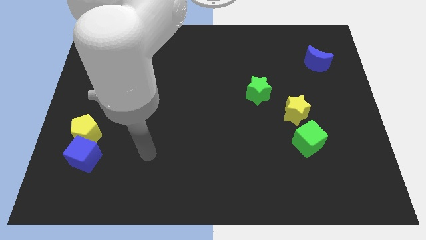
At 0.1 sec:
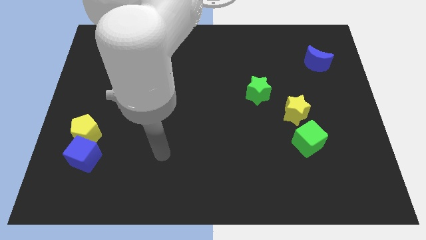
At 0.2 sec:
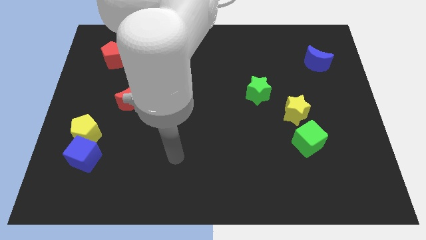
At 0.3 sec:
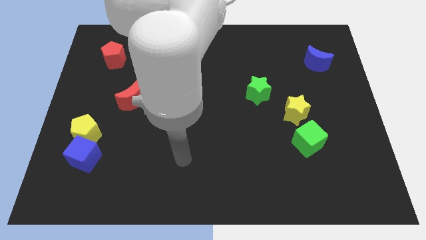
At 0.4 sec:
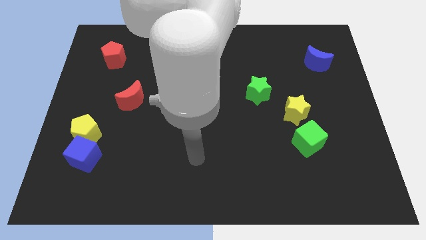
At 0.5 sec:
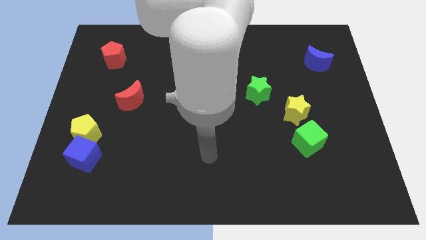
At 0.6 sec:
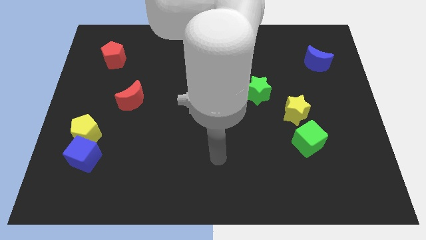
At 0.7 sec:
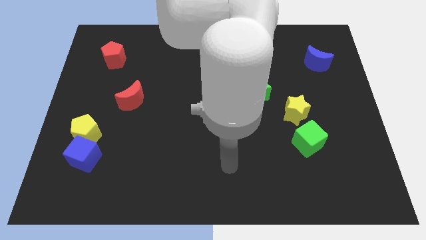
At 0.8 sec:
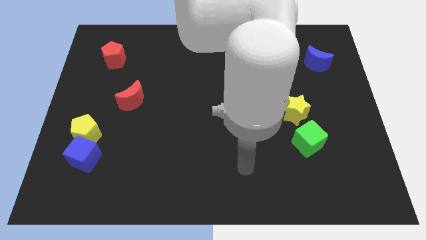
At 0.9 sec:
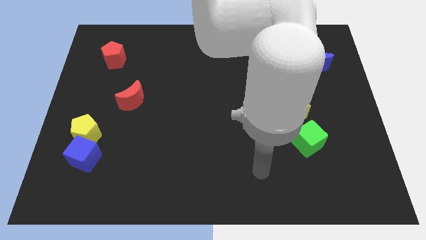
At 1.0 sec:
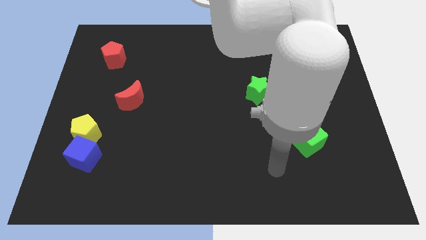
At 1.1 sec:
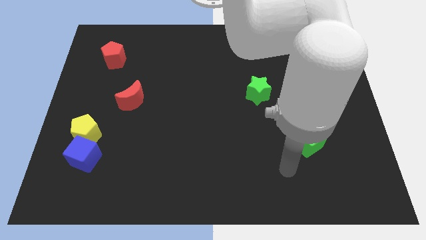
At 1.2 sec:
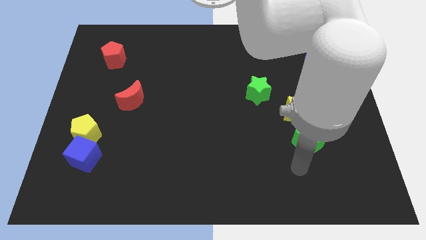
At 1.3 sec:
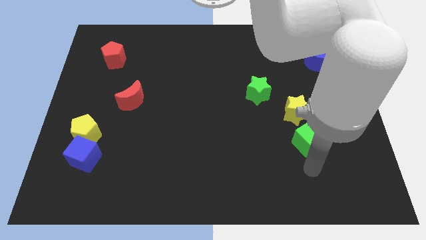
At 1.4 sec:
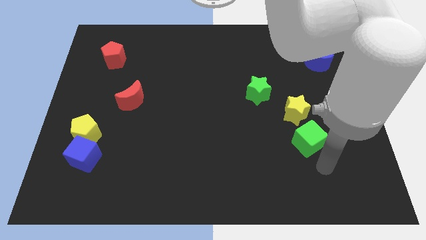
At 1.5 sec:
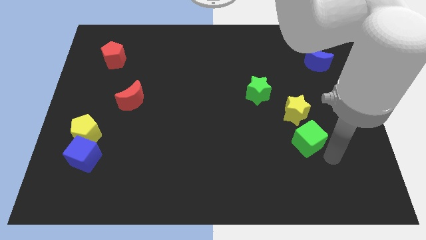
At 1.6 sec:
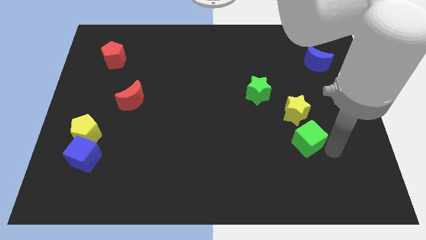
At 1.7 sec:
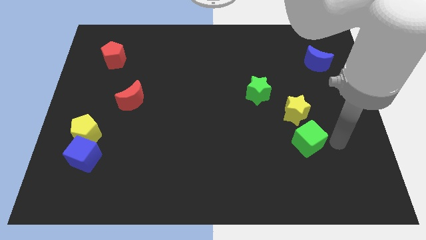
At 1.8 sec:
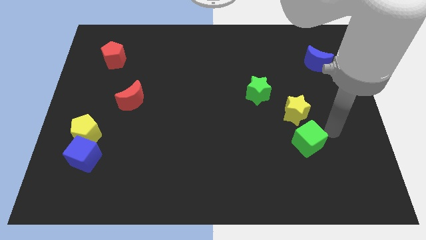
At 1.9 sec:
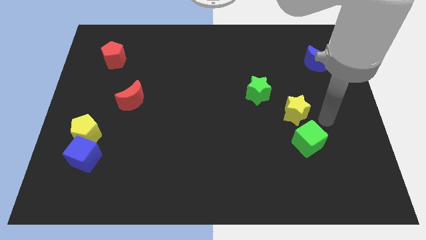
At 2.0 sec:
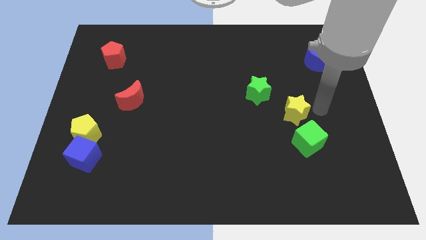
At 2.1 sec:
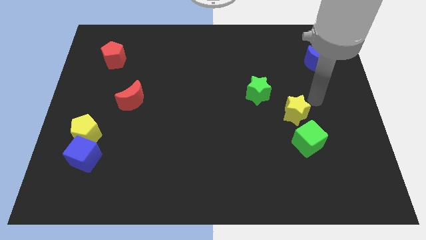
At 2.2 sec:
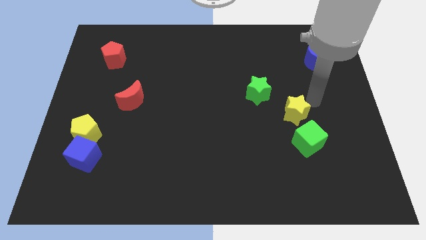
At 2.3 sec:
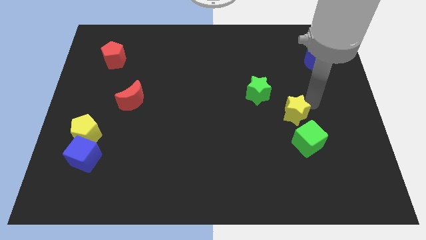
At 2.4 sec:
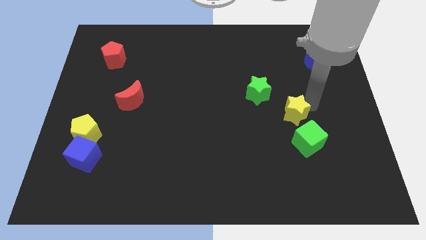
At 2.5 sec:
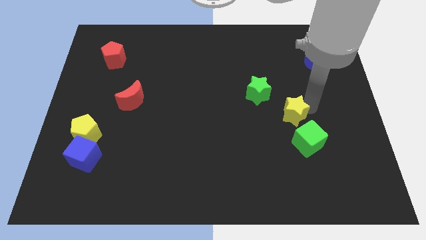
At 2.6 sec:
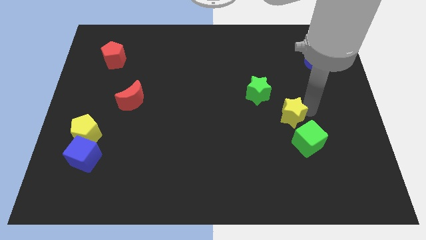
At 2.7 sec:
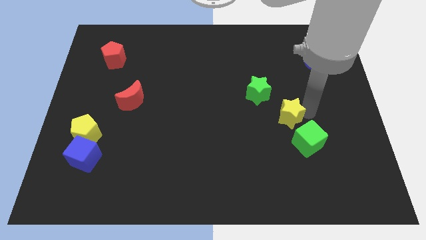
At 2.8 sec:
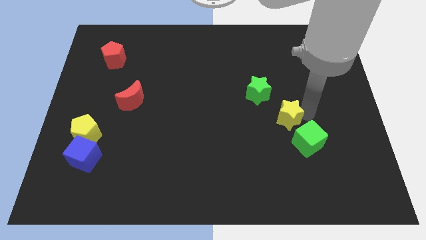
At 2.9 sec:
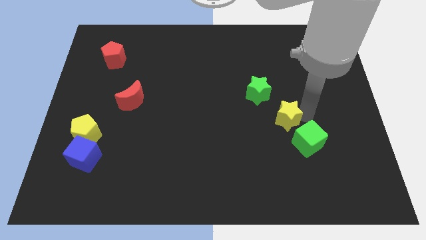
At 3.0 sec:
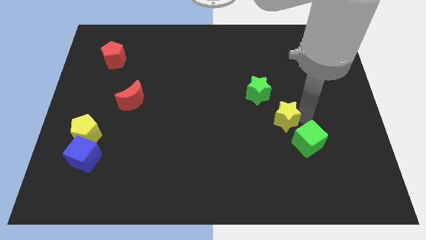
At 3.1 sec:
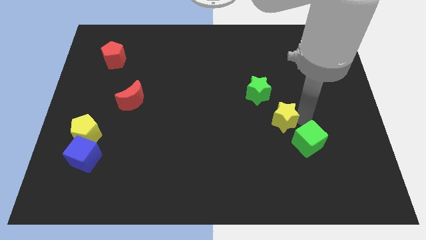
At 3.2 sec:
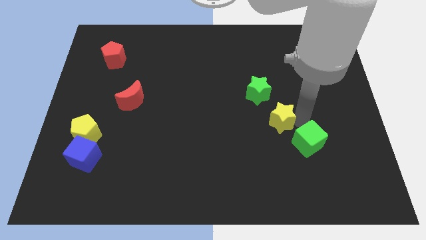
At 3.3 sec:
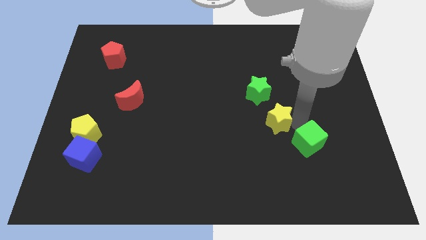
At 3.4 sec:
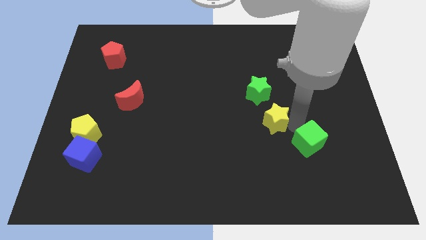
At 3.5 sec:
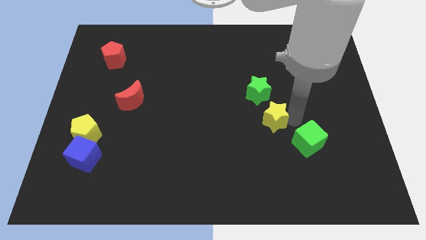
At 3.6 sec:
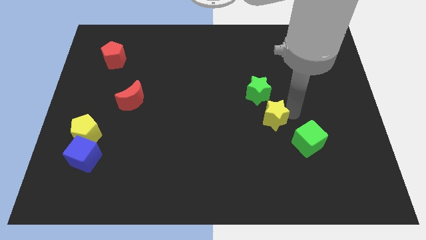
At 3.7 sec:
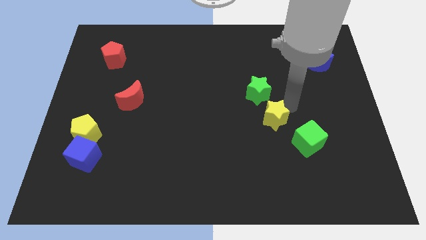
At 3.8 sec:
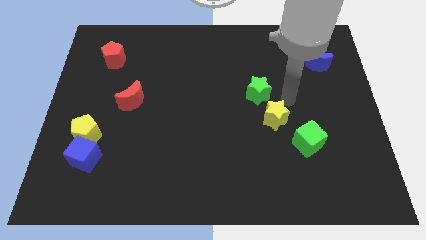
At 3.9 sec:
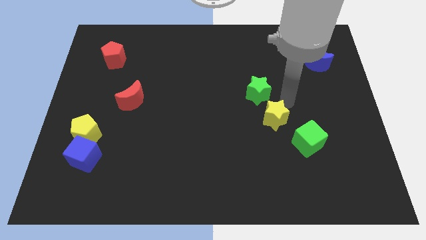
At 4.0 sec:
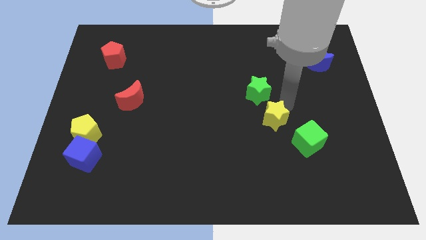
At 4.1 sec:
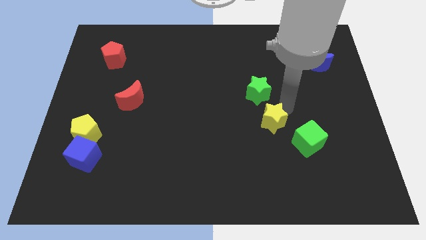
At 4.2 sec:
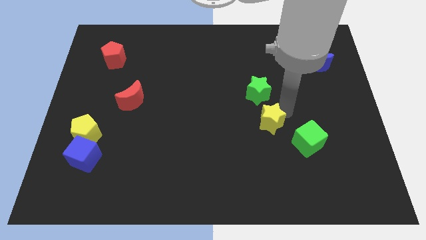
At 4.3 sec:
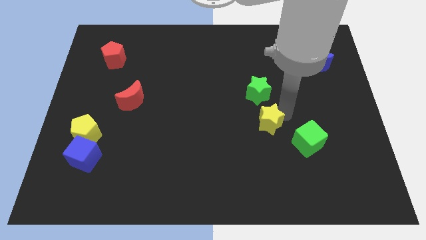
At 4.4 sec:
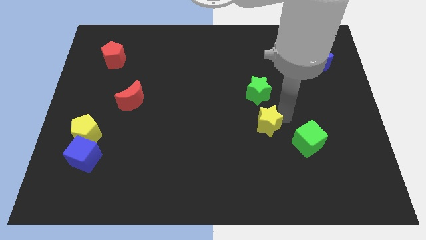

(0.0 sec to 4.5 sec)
slide the yellow star diagonally downwards and left a little bit

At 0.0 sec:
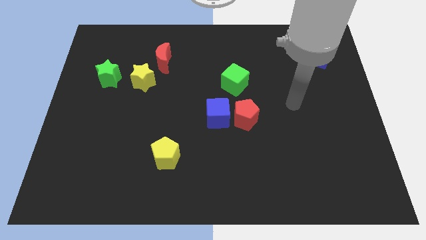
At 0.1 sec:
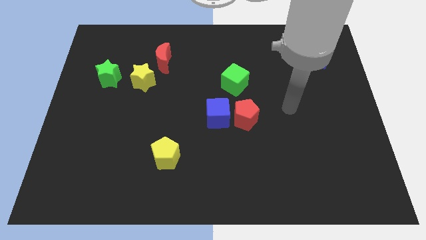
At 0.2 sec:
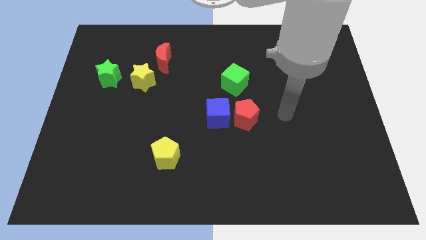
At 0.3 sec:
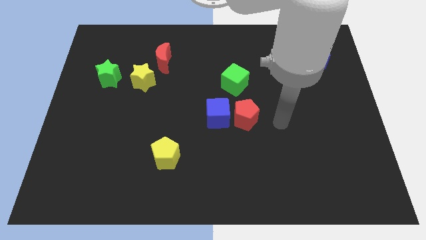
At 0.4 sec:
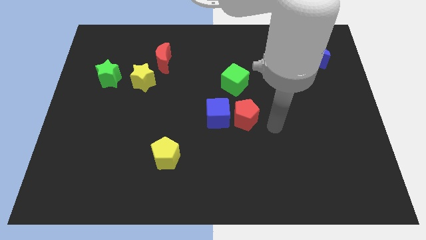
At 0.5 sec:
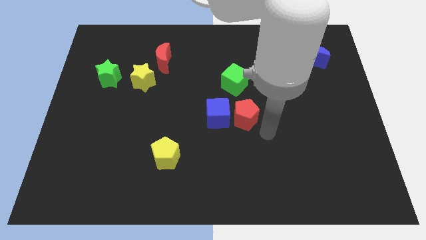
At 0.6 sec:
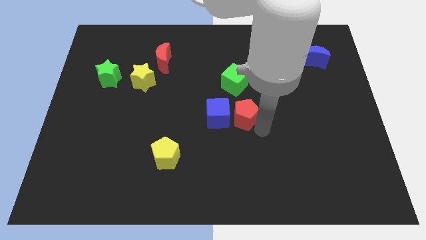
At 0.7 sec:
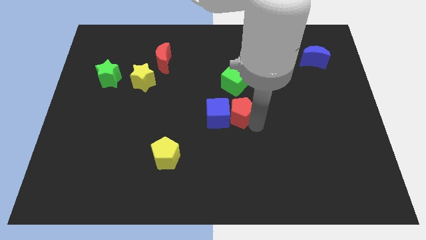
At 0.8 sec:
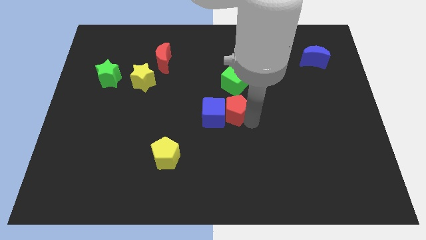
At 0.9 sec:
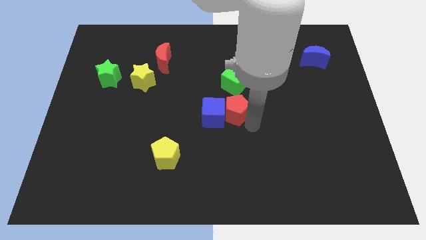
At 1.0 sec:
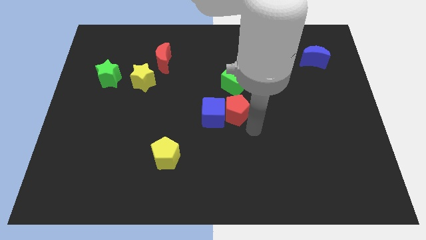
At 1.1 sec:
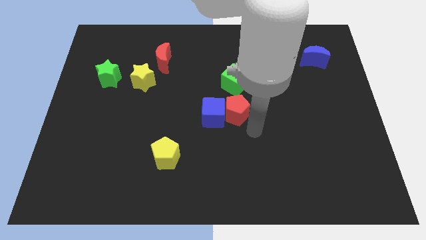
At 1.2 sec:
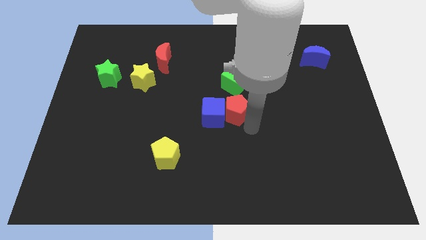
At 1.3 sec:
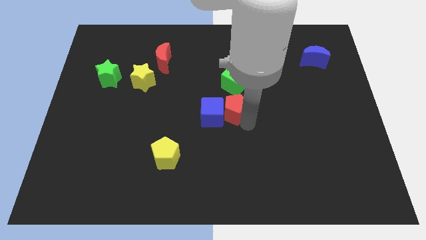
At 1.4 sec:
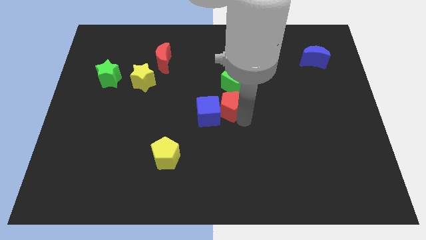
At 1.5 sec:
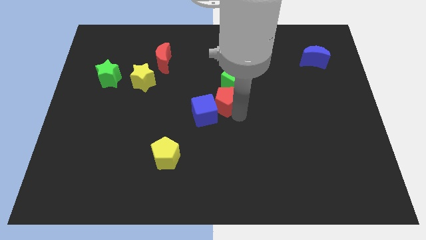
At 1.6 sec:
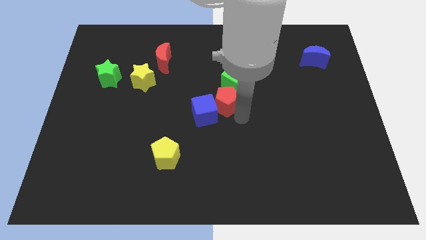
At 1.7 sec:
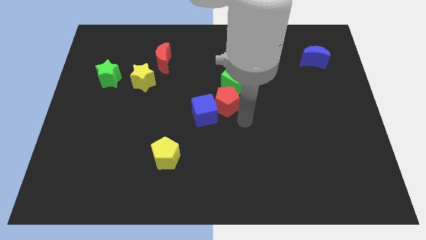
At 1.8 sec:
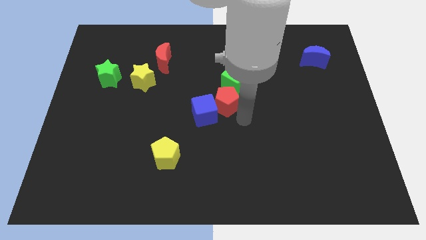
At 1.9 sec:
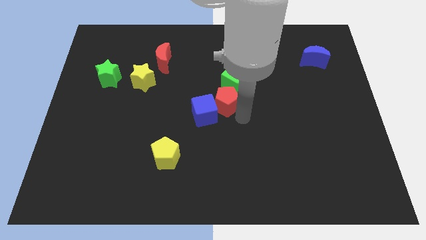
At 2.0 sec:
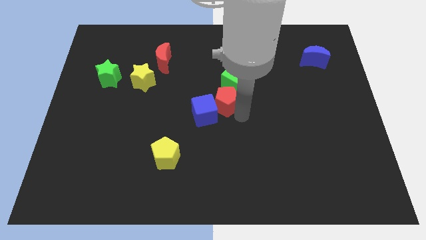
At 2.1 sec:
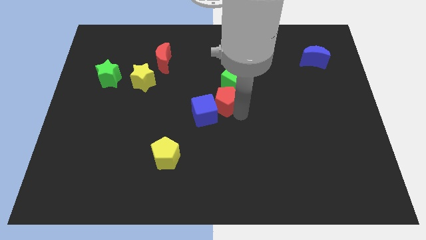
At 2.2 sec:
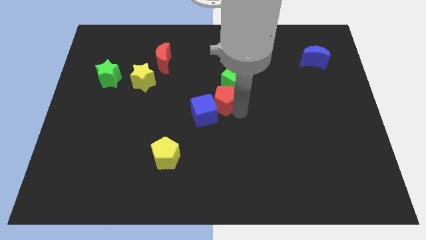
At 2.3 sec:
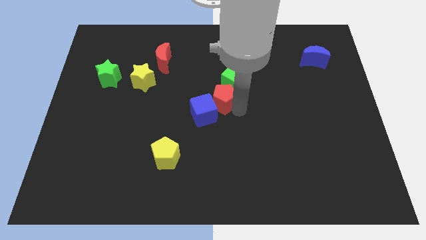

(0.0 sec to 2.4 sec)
move the red pentagon a little up and then to the left

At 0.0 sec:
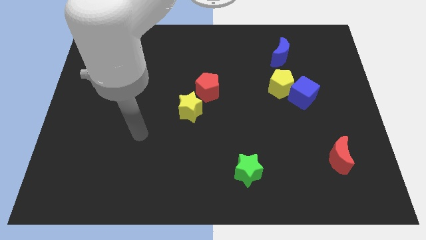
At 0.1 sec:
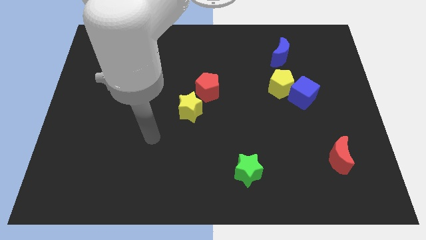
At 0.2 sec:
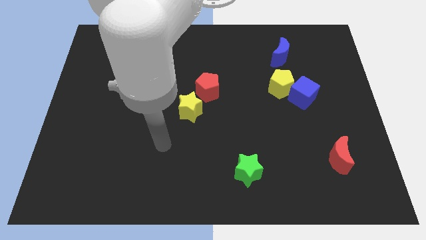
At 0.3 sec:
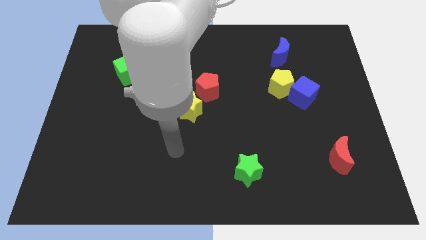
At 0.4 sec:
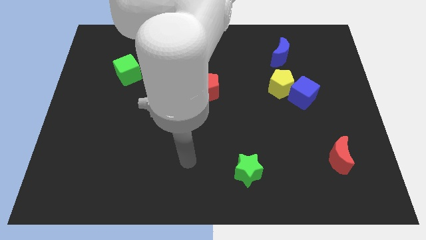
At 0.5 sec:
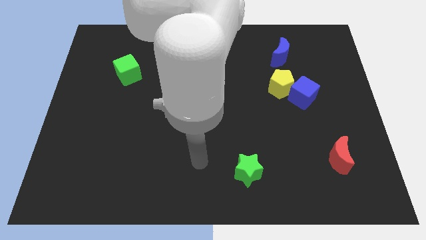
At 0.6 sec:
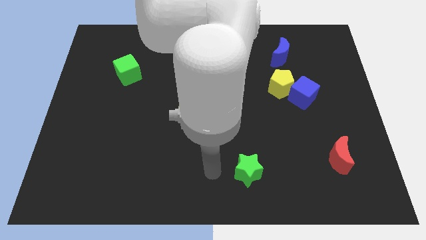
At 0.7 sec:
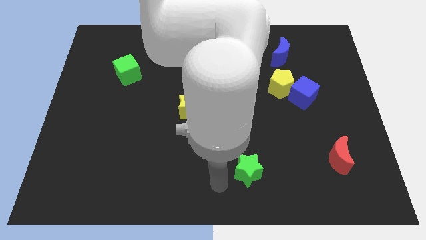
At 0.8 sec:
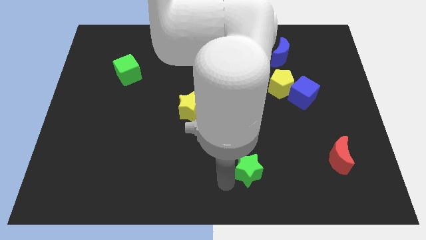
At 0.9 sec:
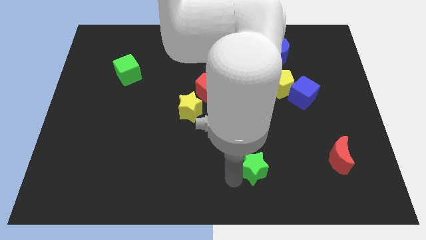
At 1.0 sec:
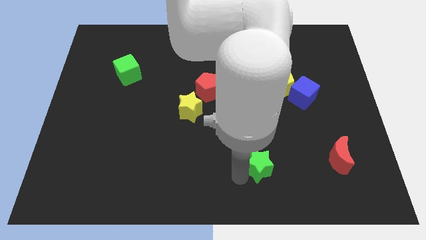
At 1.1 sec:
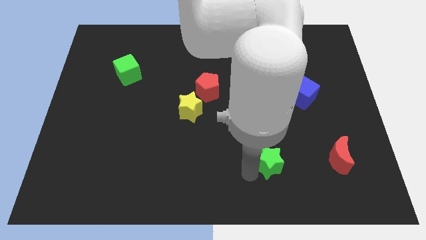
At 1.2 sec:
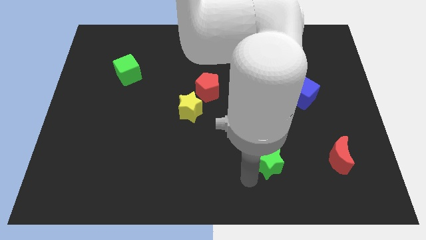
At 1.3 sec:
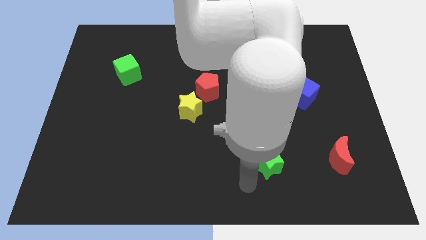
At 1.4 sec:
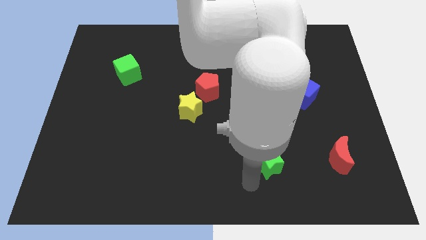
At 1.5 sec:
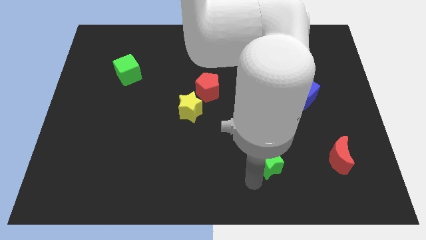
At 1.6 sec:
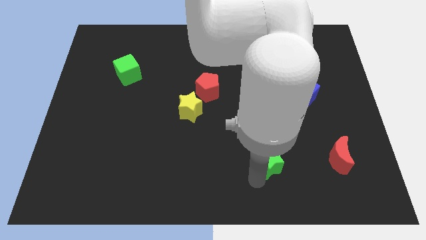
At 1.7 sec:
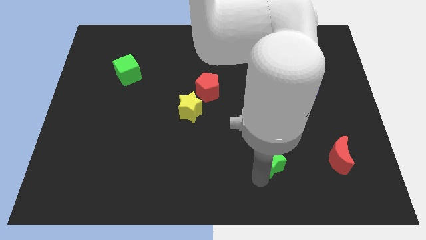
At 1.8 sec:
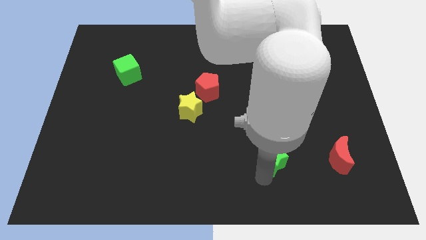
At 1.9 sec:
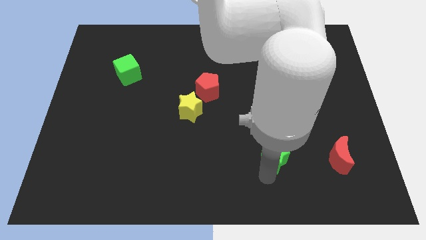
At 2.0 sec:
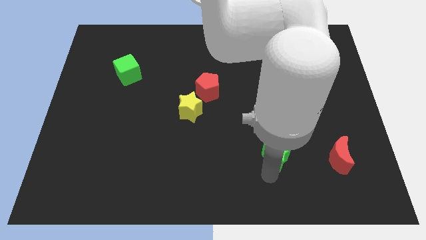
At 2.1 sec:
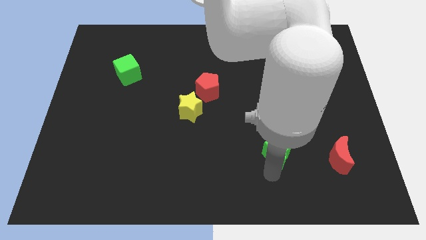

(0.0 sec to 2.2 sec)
move the green star diagonally up and right slightly
